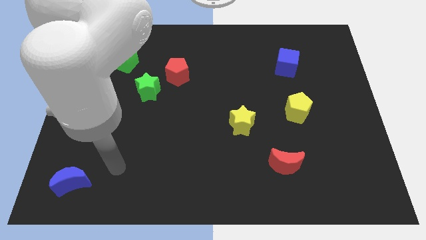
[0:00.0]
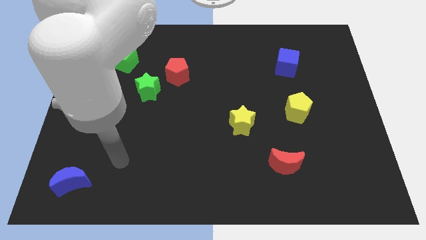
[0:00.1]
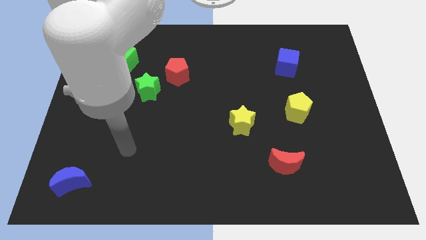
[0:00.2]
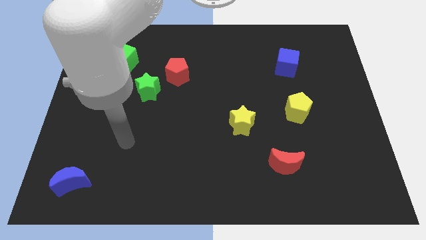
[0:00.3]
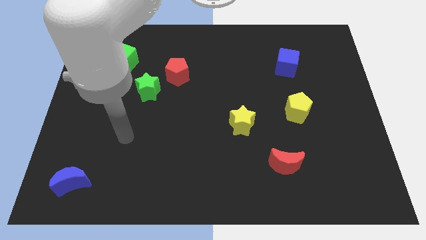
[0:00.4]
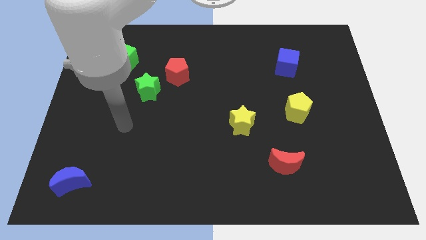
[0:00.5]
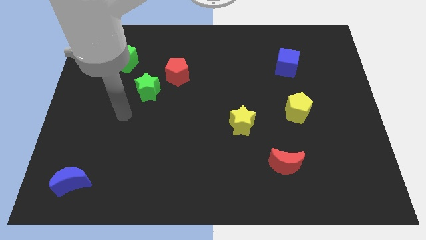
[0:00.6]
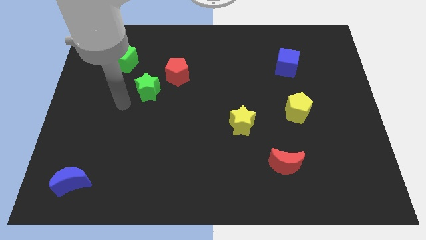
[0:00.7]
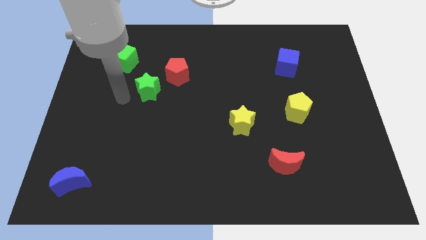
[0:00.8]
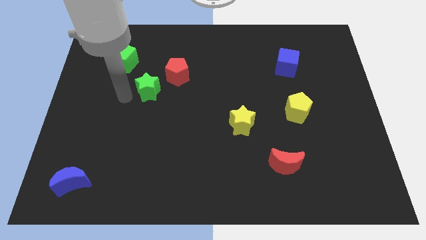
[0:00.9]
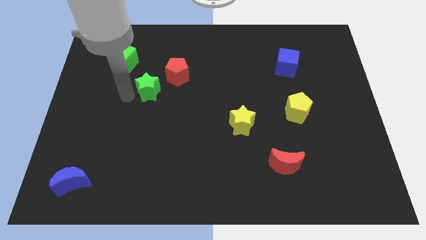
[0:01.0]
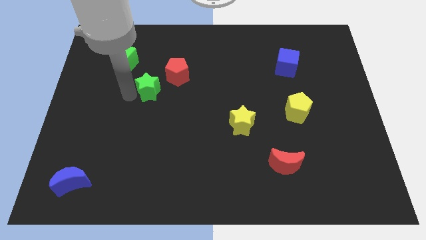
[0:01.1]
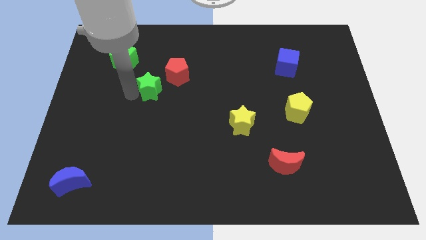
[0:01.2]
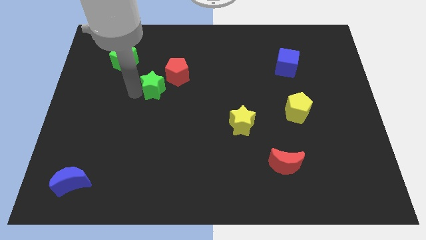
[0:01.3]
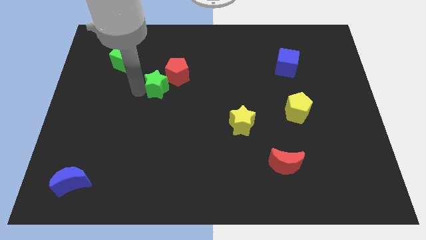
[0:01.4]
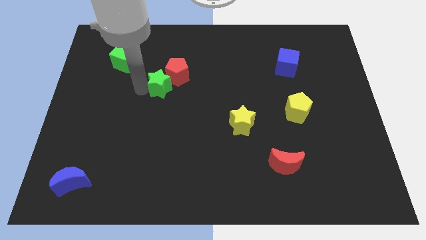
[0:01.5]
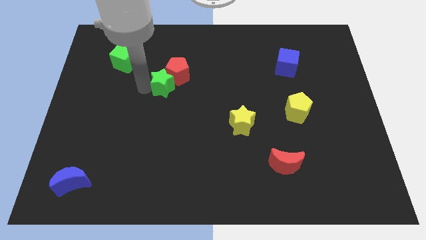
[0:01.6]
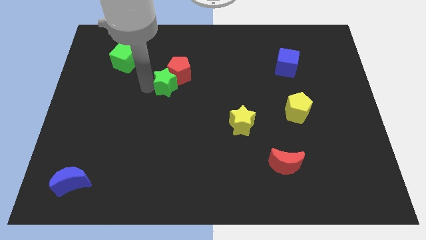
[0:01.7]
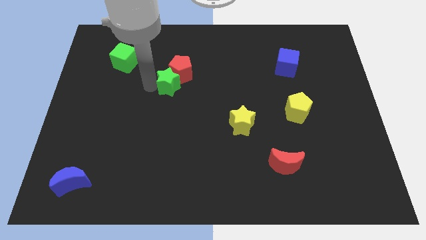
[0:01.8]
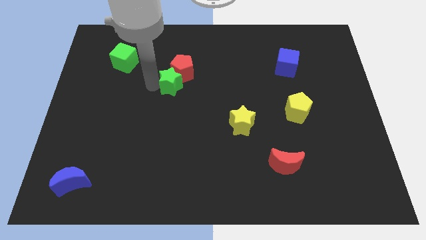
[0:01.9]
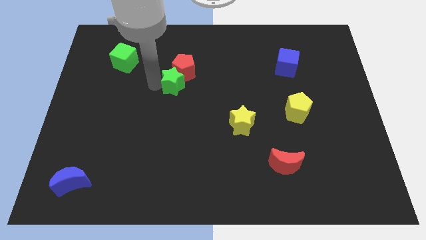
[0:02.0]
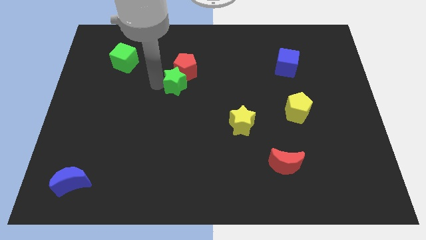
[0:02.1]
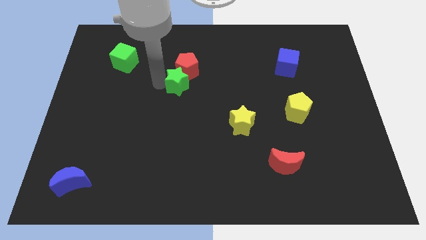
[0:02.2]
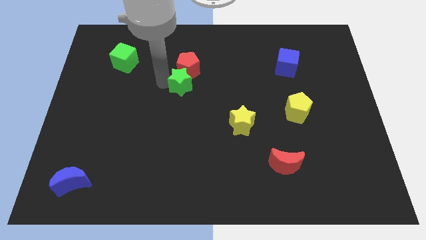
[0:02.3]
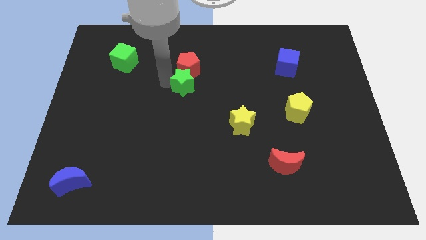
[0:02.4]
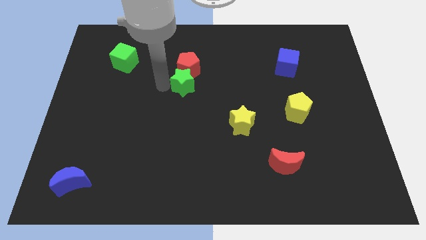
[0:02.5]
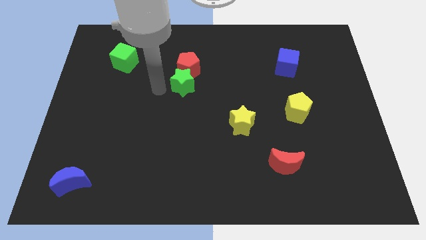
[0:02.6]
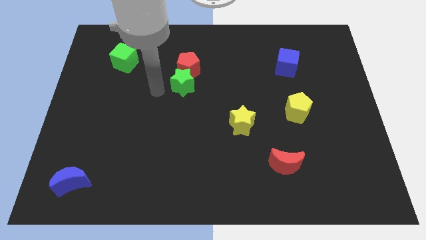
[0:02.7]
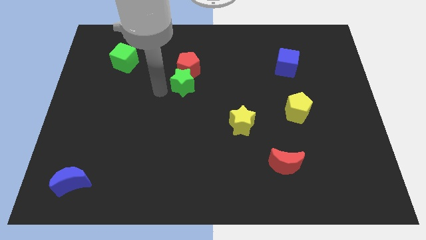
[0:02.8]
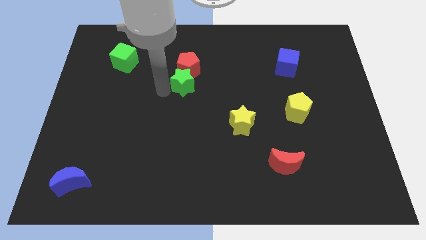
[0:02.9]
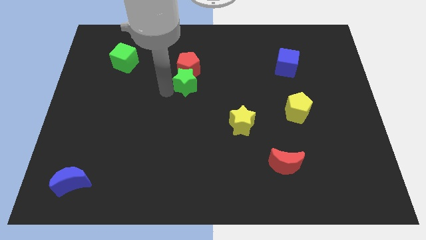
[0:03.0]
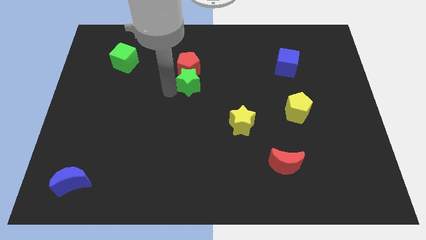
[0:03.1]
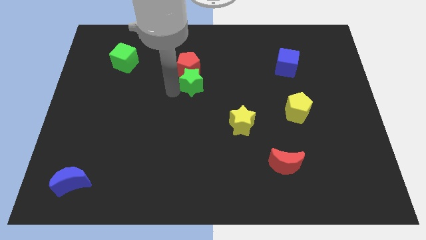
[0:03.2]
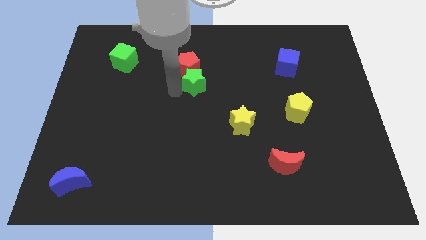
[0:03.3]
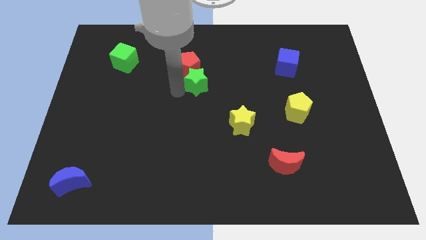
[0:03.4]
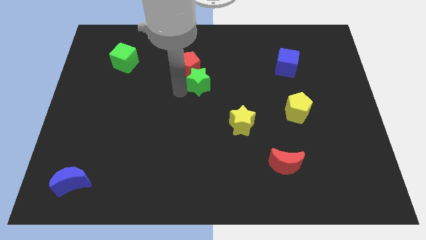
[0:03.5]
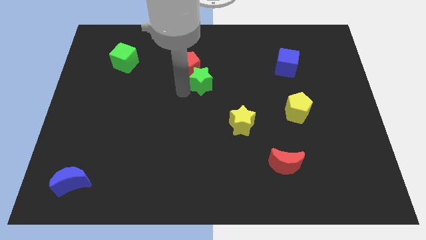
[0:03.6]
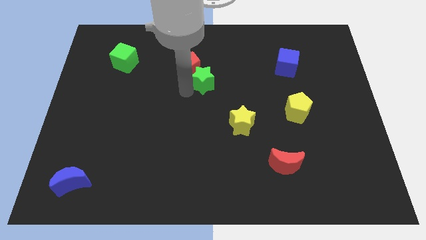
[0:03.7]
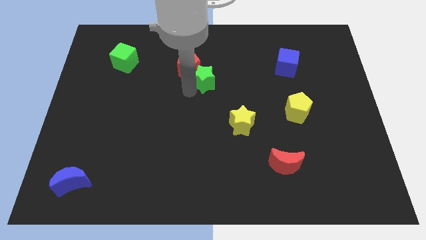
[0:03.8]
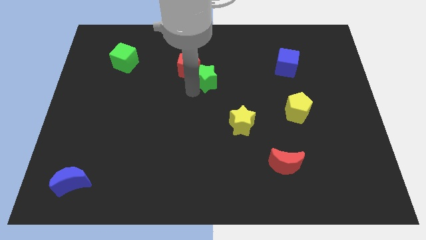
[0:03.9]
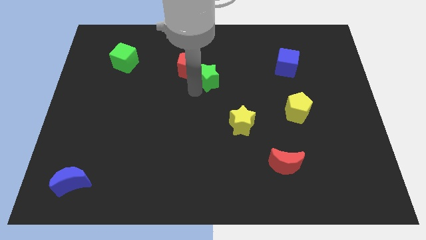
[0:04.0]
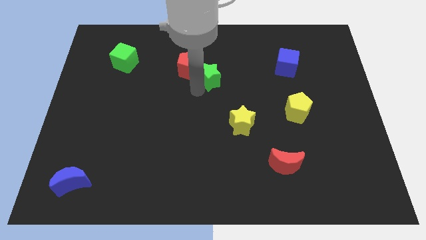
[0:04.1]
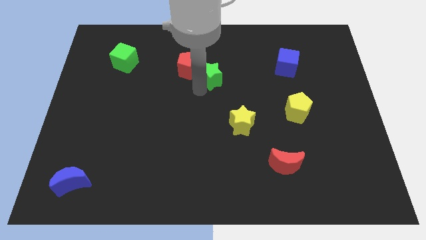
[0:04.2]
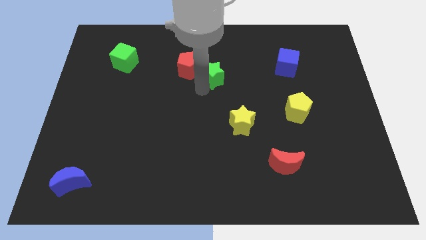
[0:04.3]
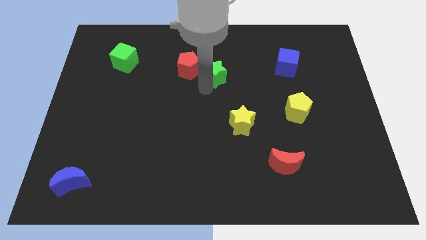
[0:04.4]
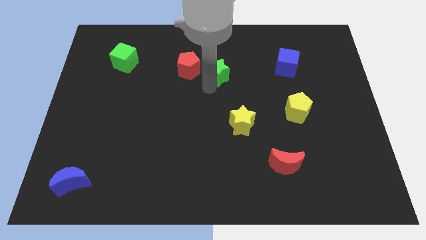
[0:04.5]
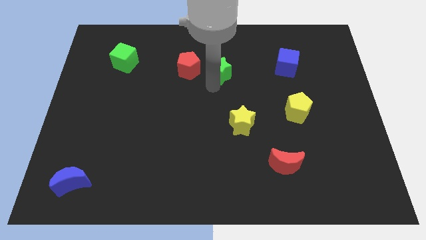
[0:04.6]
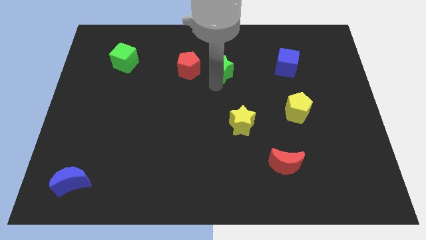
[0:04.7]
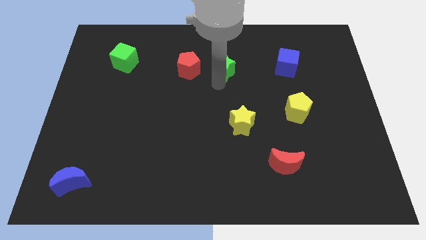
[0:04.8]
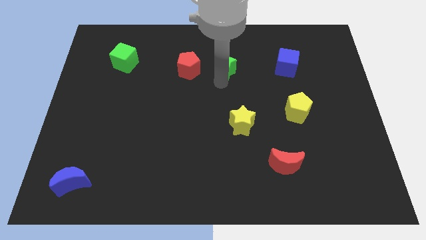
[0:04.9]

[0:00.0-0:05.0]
slide the green star just left of the blue cube

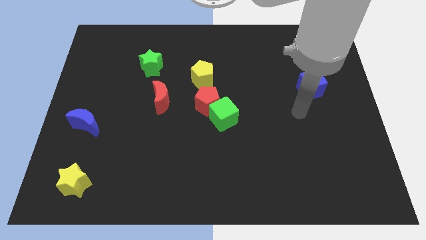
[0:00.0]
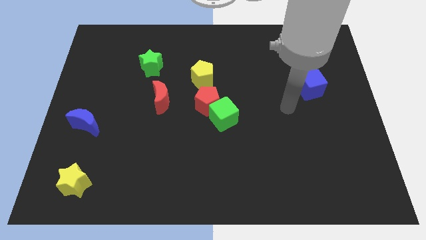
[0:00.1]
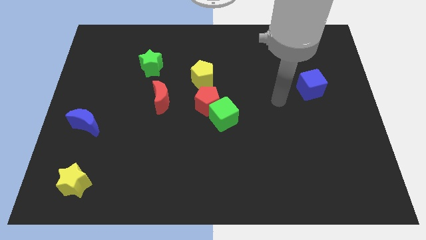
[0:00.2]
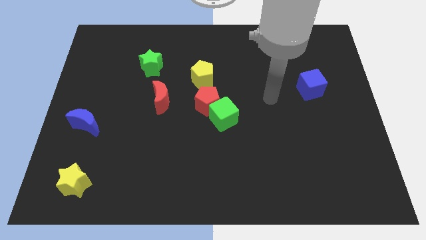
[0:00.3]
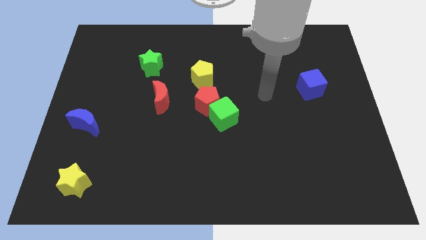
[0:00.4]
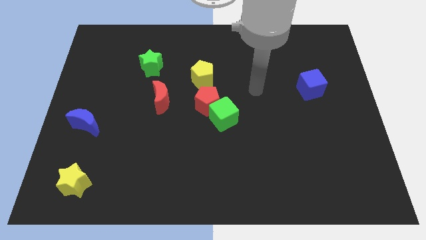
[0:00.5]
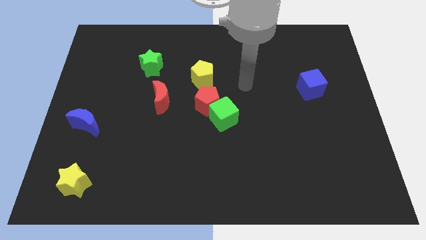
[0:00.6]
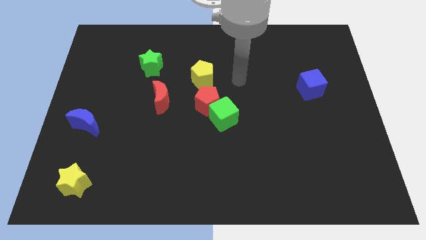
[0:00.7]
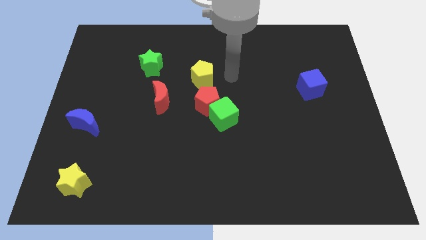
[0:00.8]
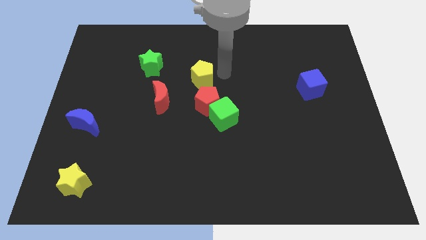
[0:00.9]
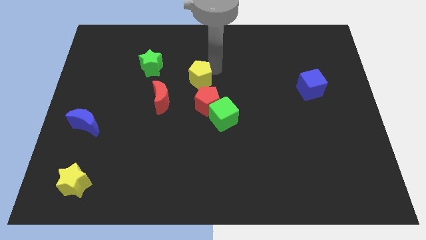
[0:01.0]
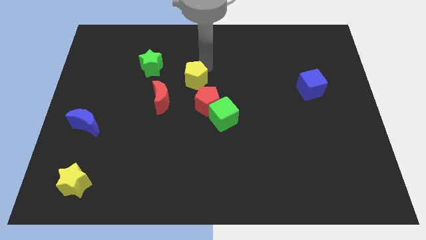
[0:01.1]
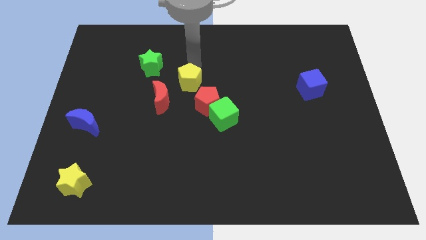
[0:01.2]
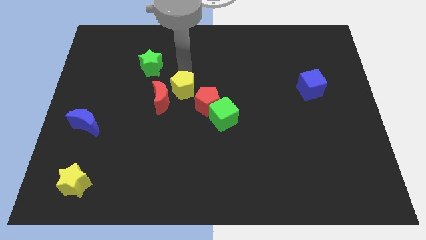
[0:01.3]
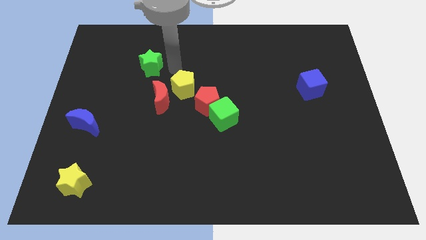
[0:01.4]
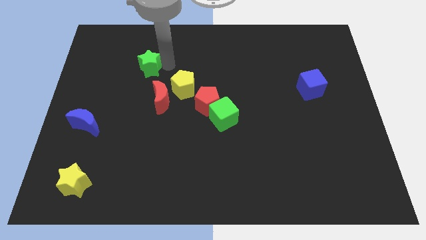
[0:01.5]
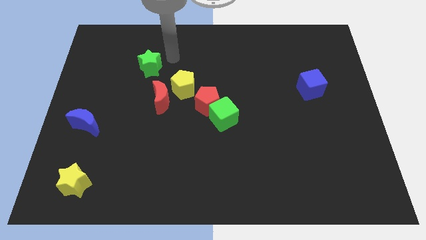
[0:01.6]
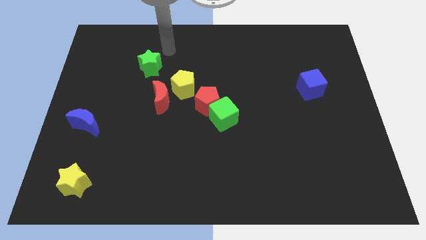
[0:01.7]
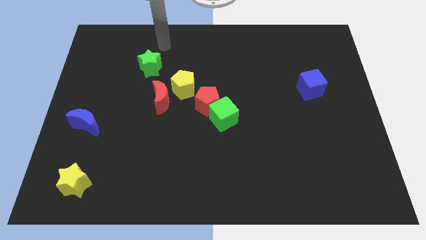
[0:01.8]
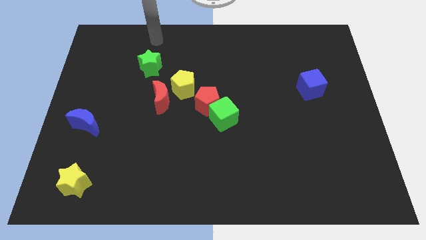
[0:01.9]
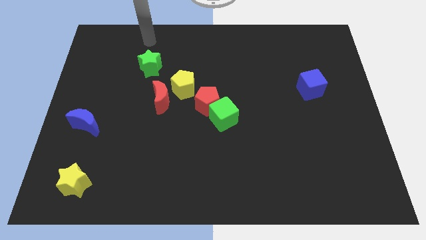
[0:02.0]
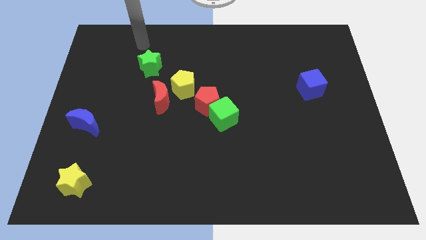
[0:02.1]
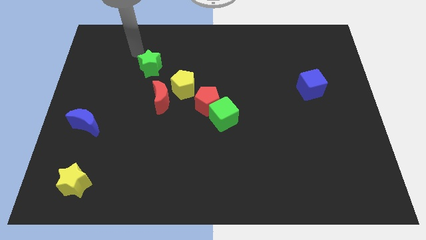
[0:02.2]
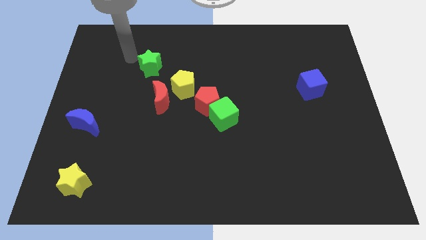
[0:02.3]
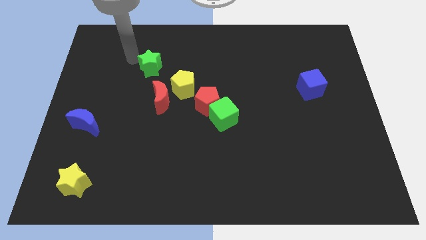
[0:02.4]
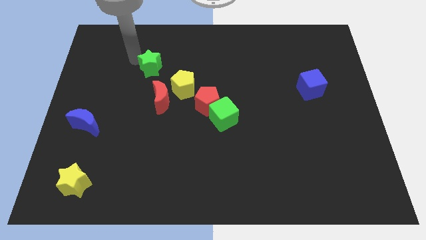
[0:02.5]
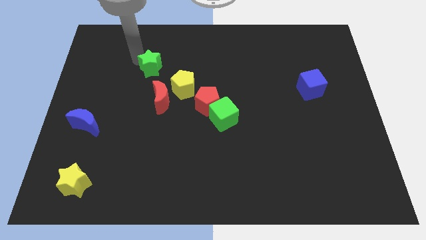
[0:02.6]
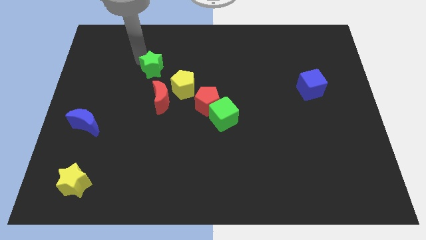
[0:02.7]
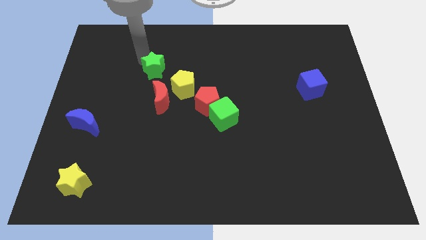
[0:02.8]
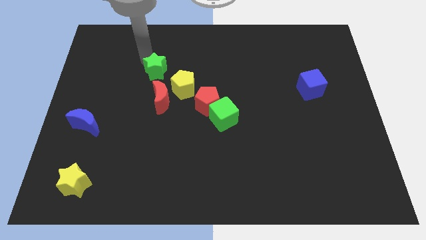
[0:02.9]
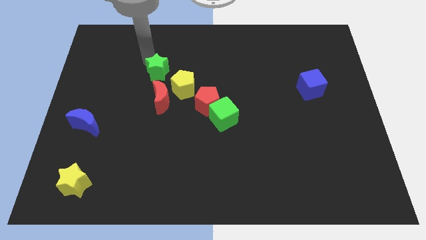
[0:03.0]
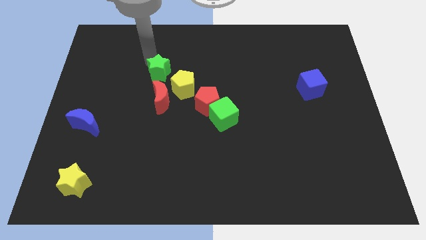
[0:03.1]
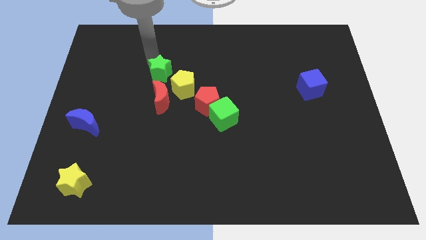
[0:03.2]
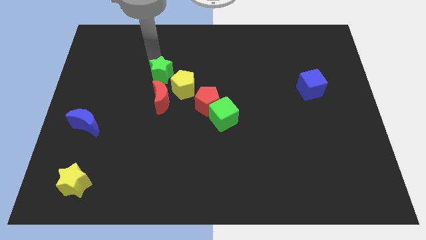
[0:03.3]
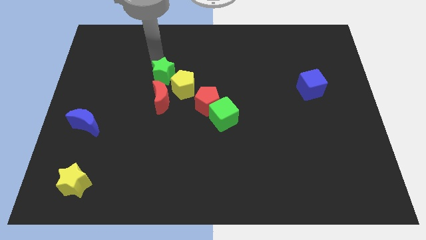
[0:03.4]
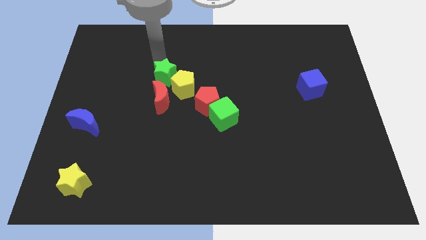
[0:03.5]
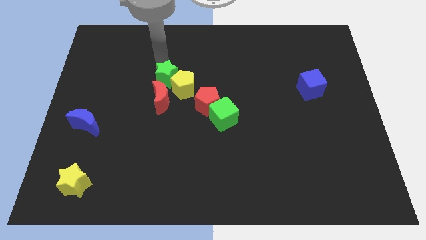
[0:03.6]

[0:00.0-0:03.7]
slide the green star to the top right side of the red moon
